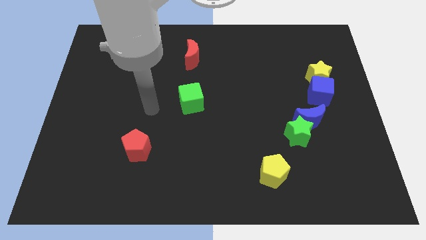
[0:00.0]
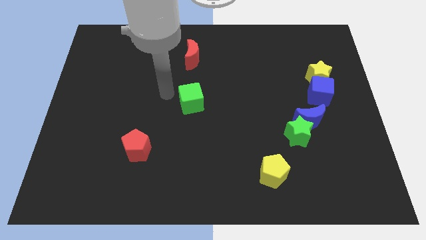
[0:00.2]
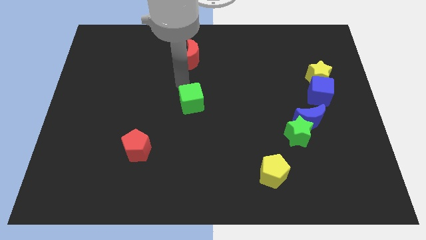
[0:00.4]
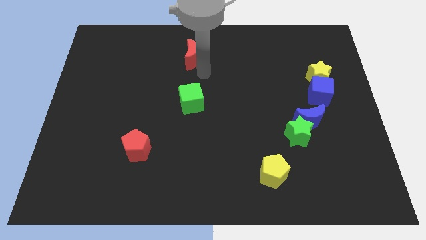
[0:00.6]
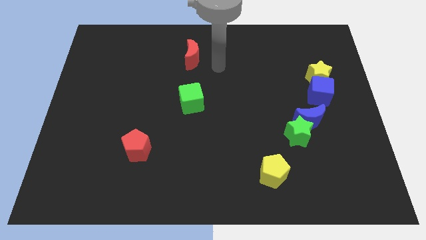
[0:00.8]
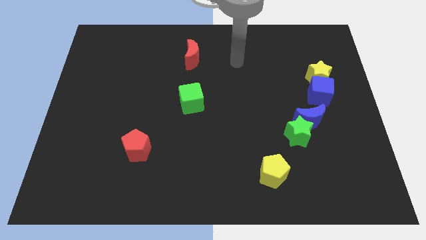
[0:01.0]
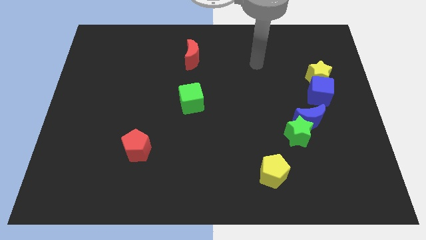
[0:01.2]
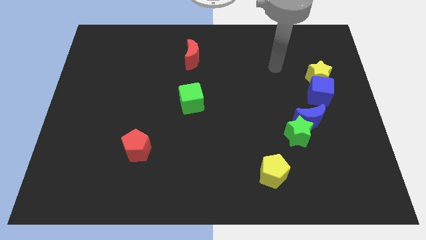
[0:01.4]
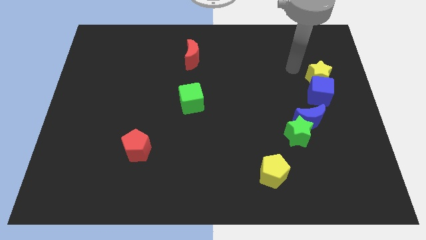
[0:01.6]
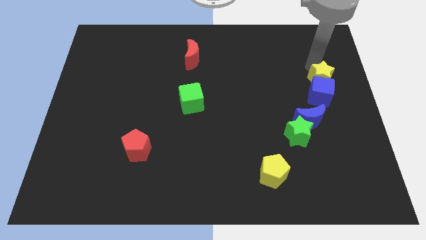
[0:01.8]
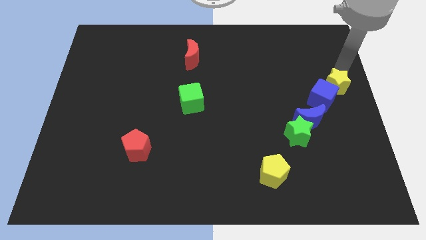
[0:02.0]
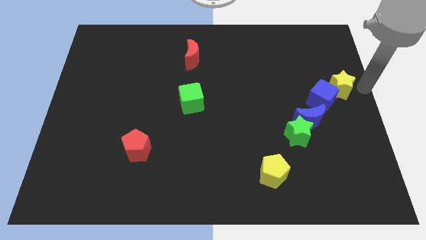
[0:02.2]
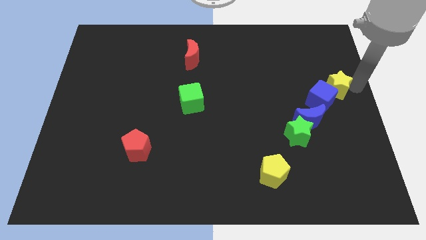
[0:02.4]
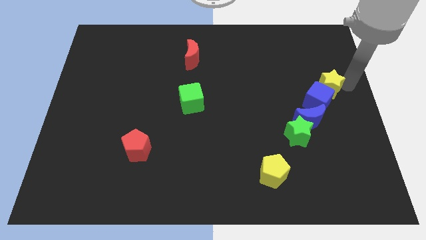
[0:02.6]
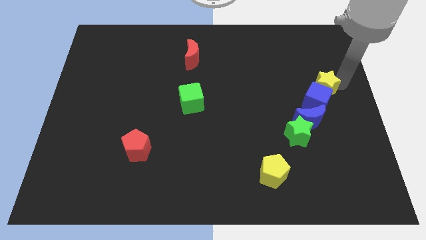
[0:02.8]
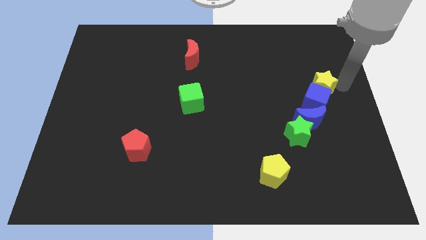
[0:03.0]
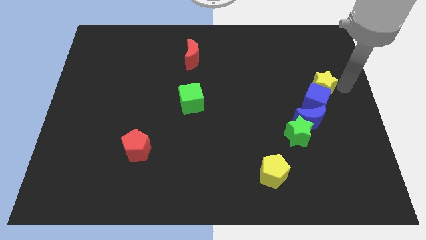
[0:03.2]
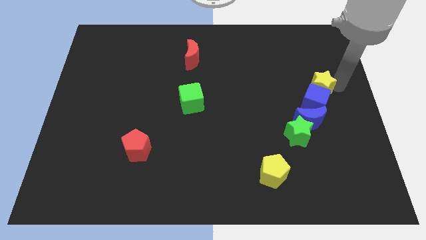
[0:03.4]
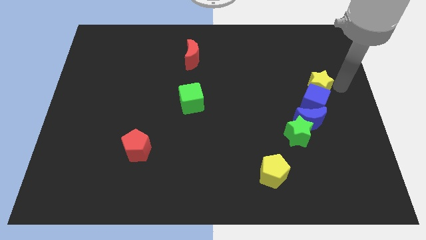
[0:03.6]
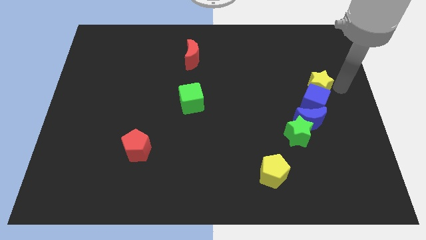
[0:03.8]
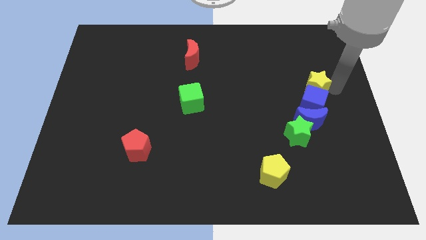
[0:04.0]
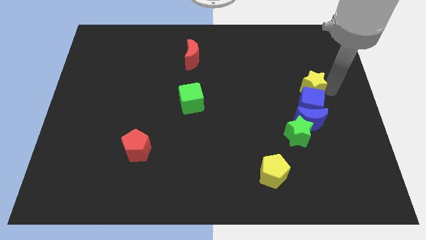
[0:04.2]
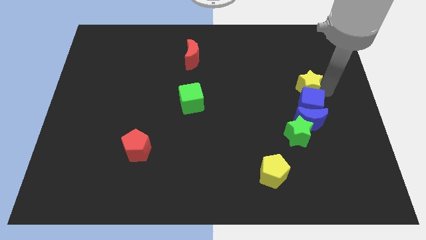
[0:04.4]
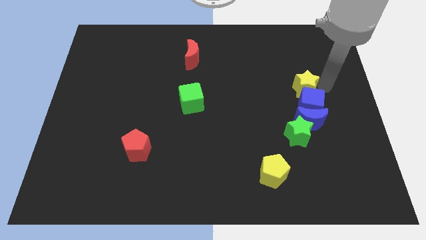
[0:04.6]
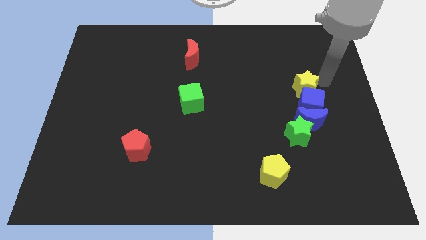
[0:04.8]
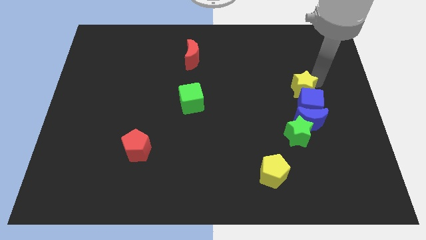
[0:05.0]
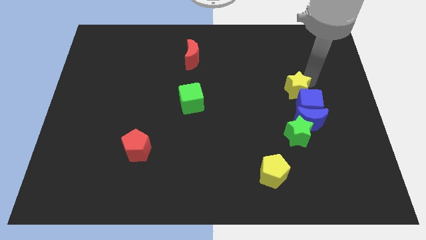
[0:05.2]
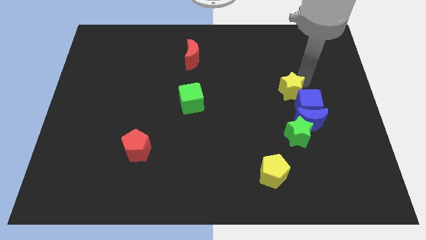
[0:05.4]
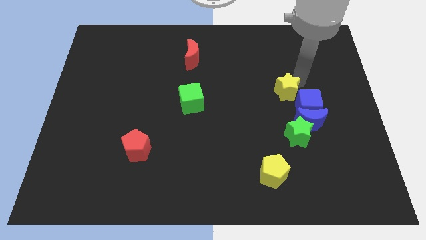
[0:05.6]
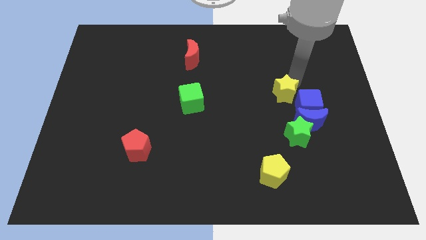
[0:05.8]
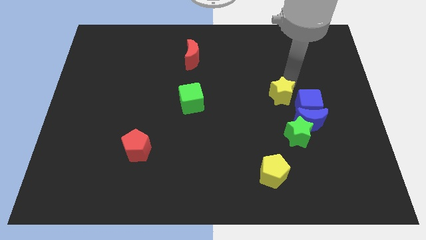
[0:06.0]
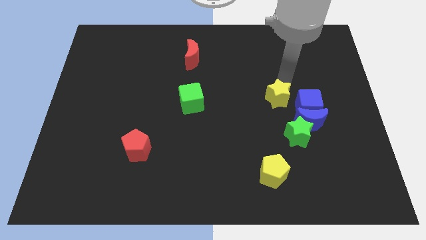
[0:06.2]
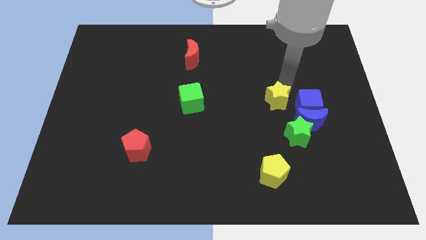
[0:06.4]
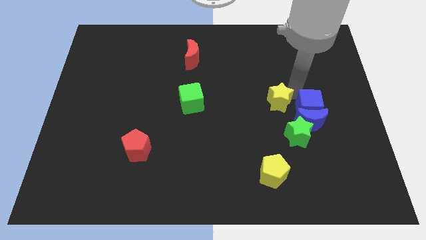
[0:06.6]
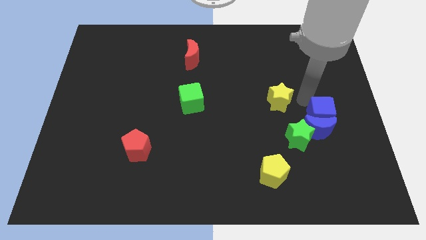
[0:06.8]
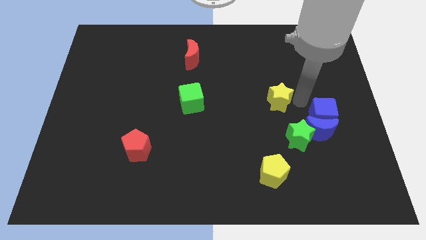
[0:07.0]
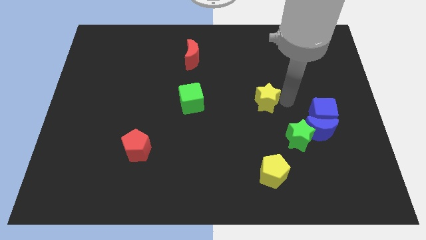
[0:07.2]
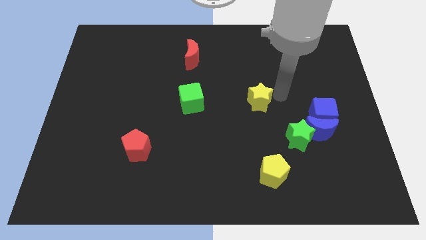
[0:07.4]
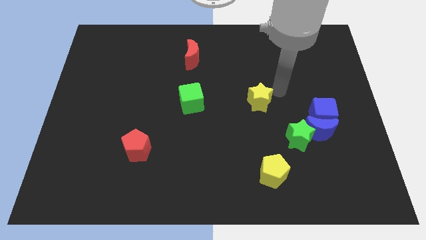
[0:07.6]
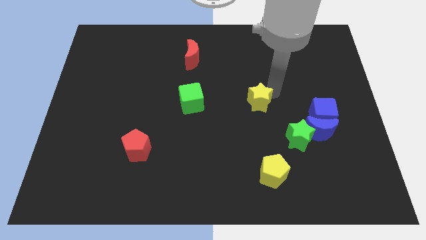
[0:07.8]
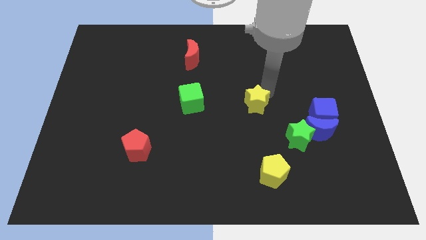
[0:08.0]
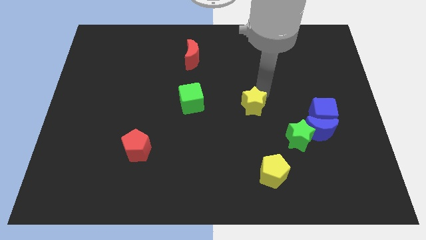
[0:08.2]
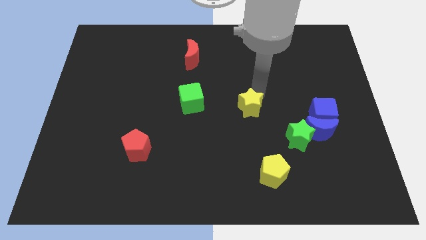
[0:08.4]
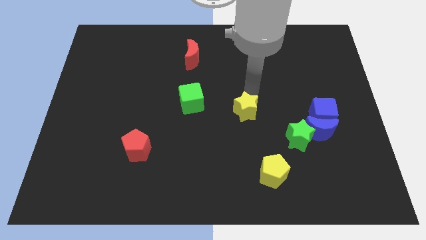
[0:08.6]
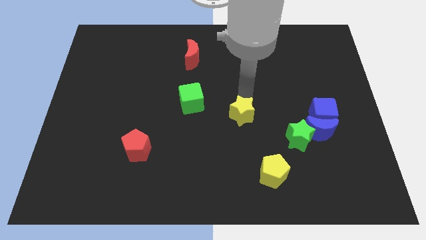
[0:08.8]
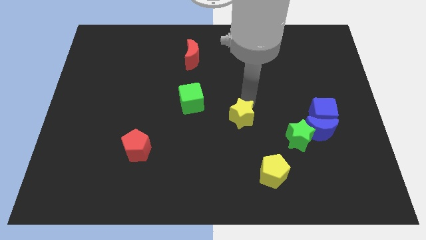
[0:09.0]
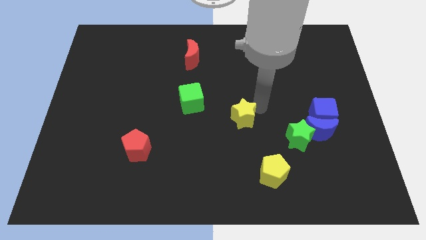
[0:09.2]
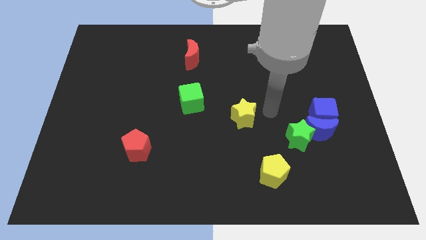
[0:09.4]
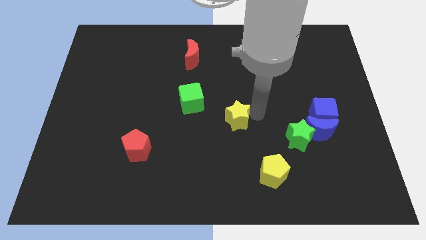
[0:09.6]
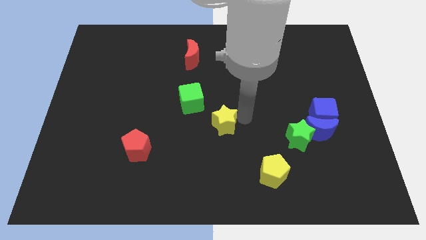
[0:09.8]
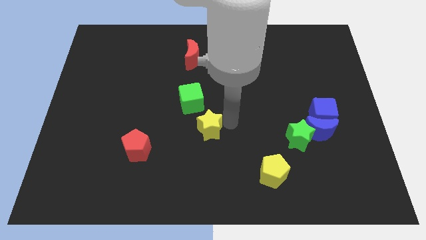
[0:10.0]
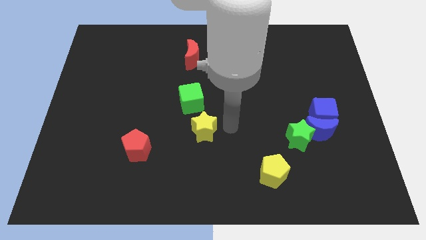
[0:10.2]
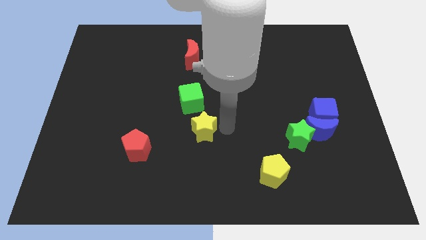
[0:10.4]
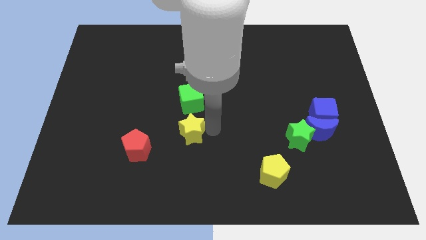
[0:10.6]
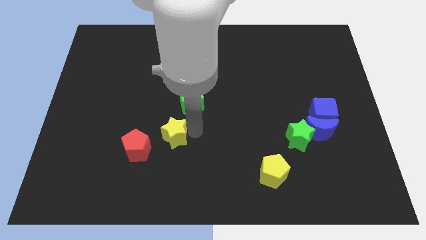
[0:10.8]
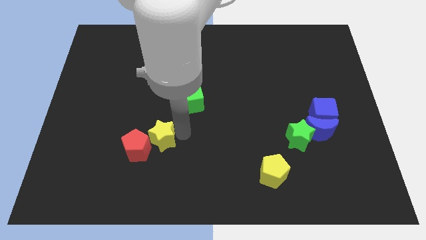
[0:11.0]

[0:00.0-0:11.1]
move the yellow star close to the red pentagon

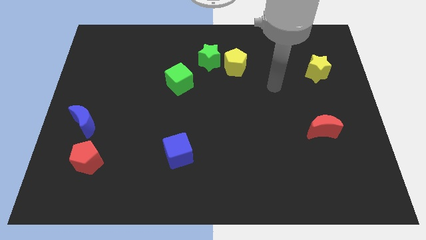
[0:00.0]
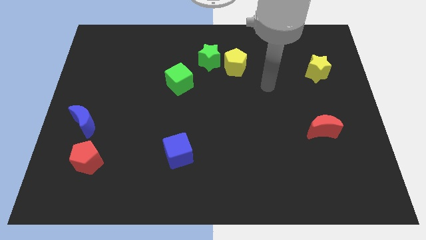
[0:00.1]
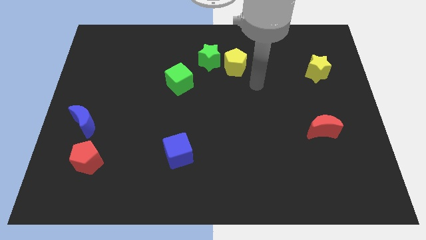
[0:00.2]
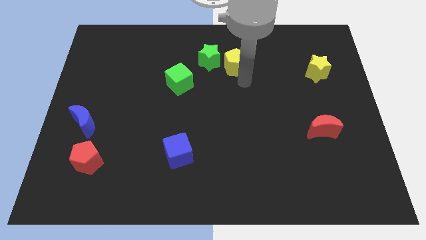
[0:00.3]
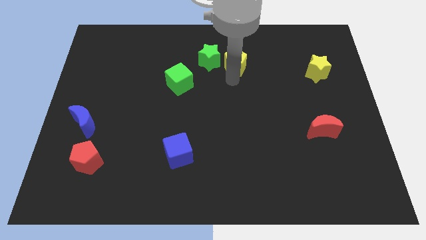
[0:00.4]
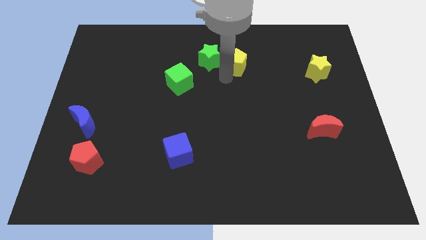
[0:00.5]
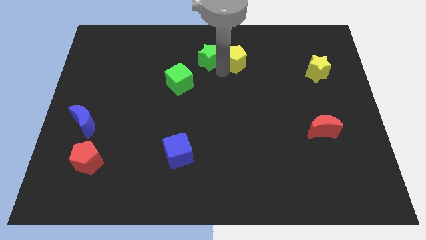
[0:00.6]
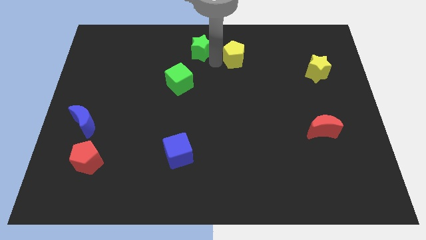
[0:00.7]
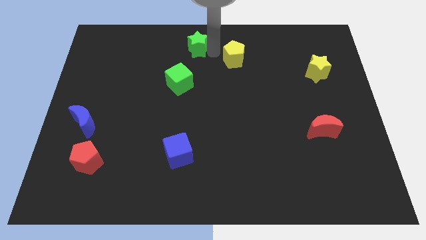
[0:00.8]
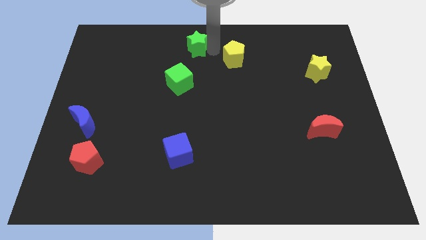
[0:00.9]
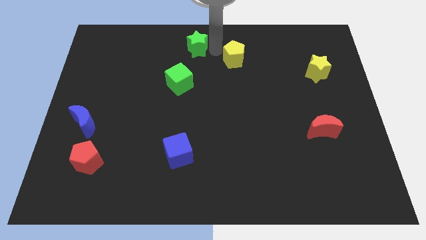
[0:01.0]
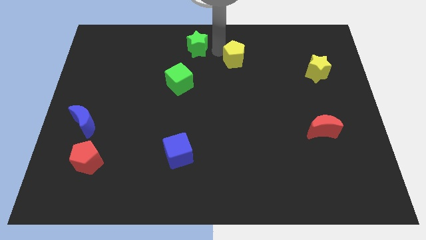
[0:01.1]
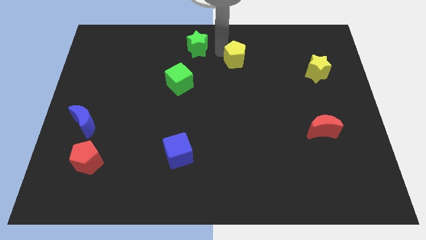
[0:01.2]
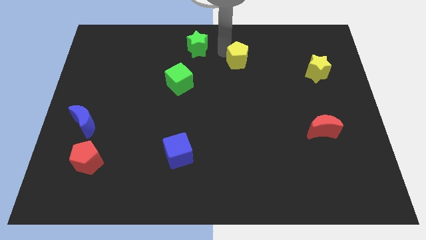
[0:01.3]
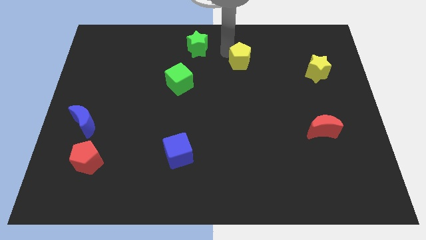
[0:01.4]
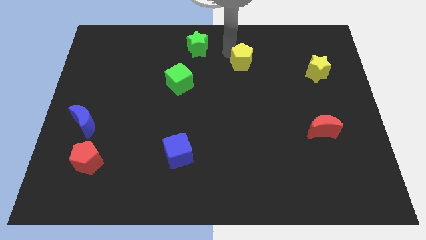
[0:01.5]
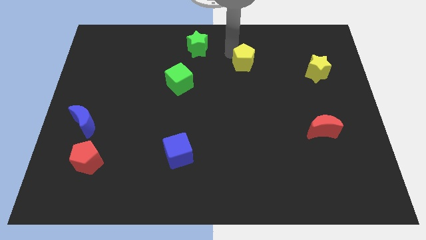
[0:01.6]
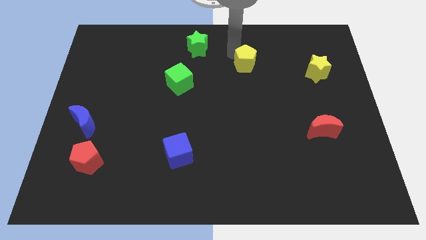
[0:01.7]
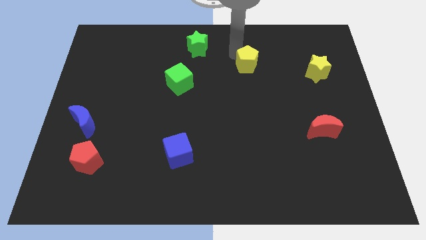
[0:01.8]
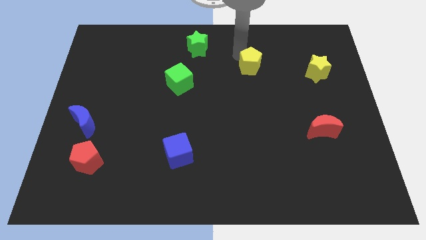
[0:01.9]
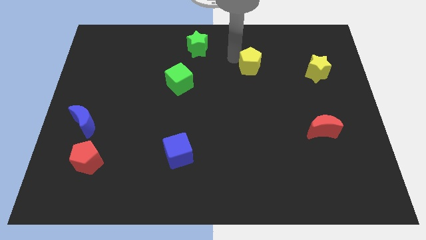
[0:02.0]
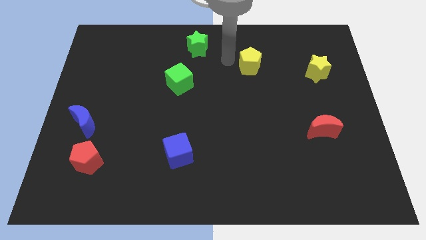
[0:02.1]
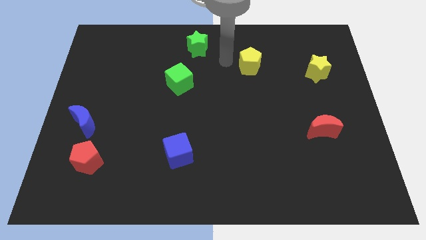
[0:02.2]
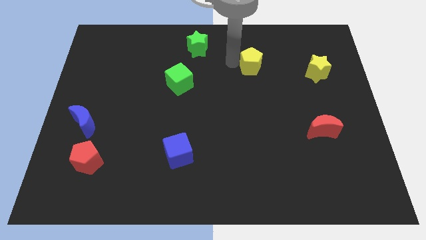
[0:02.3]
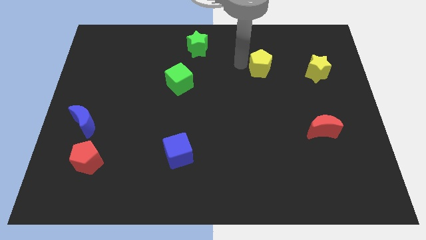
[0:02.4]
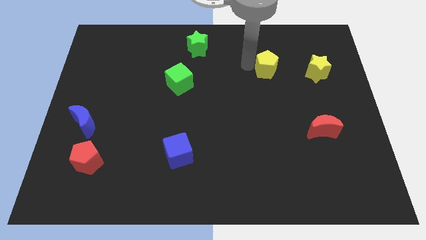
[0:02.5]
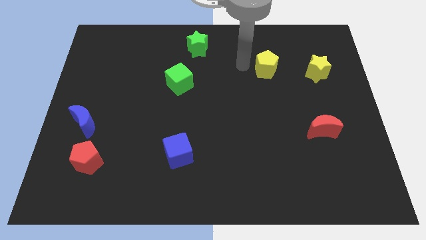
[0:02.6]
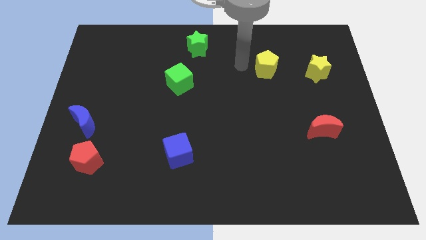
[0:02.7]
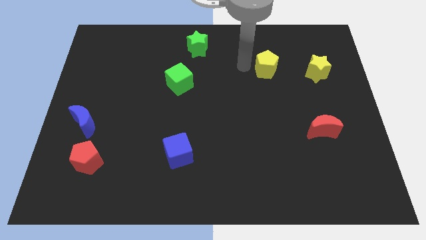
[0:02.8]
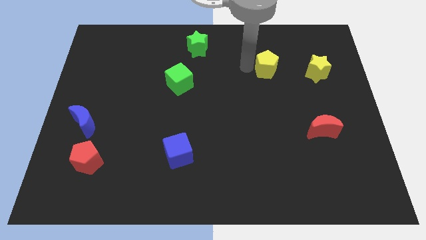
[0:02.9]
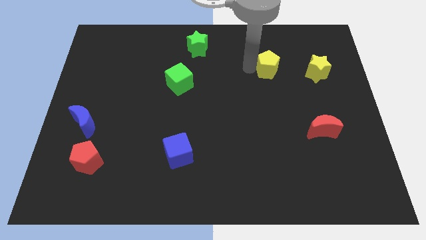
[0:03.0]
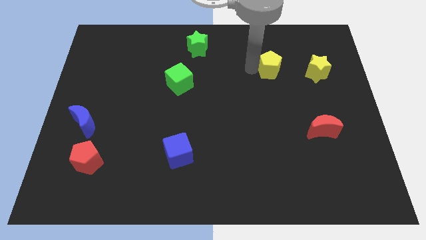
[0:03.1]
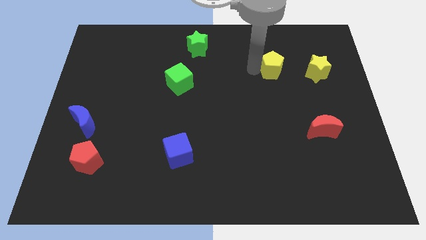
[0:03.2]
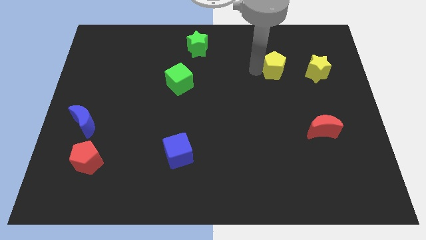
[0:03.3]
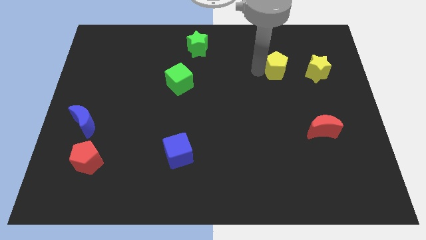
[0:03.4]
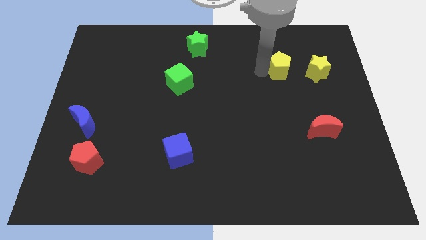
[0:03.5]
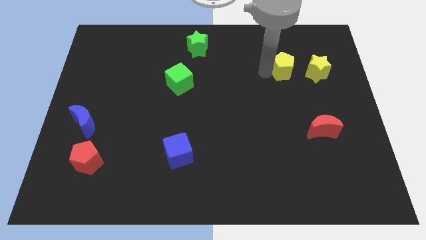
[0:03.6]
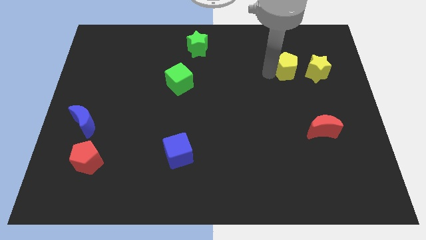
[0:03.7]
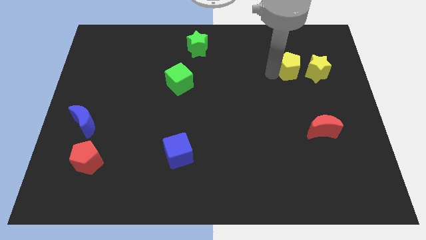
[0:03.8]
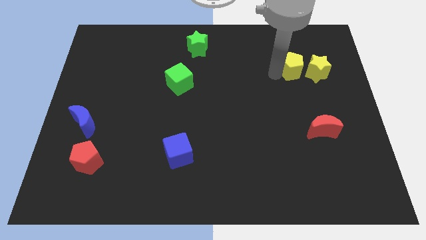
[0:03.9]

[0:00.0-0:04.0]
put the yellow pentagon next to the yellow star
